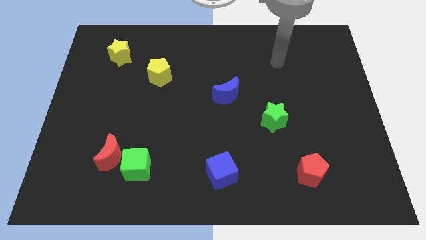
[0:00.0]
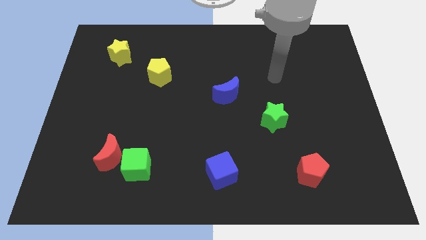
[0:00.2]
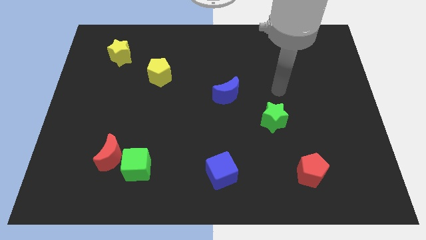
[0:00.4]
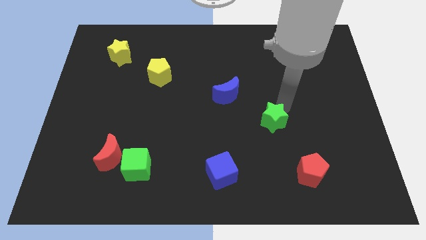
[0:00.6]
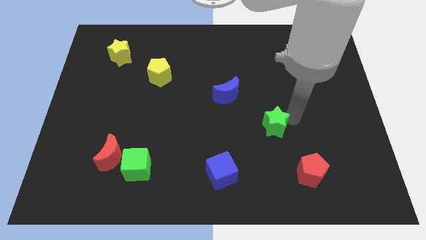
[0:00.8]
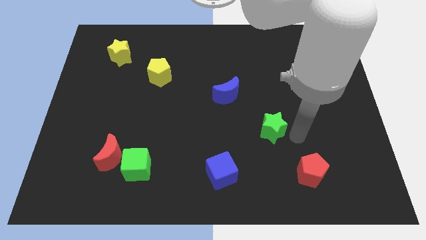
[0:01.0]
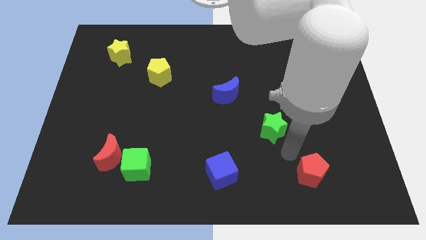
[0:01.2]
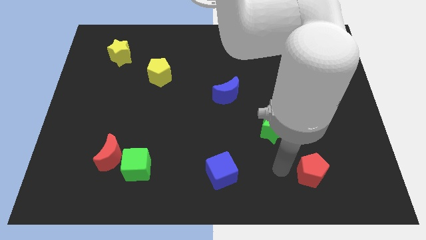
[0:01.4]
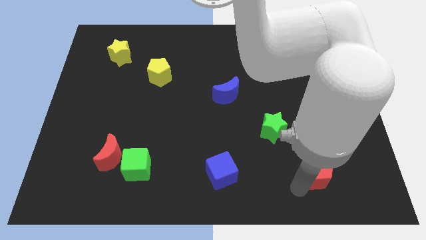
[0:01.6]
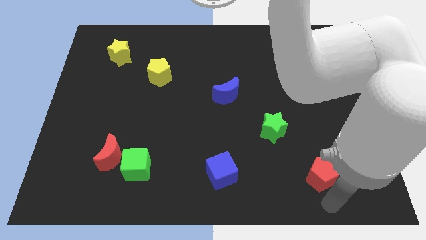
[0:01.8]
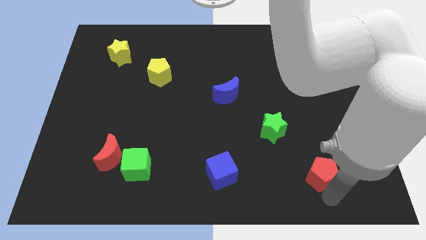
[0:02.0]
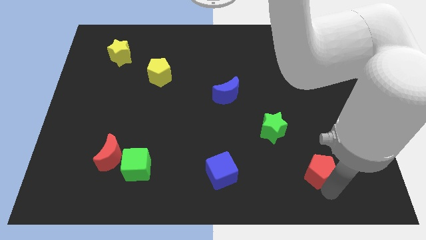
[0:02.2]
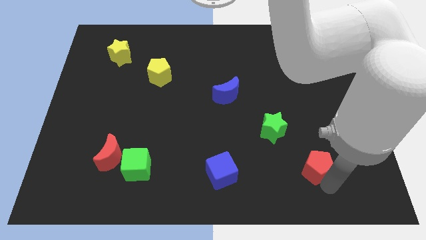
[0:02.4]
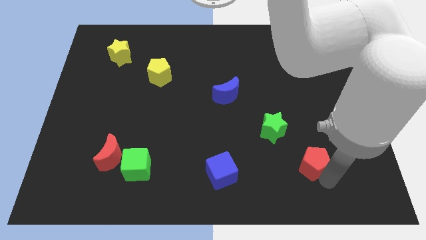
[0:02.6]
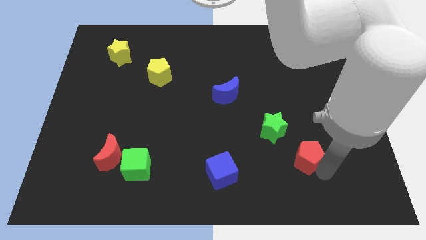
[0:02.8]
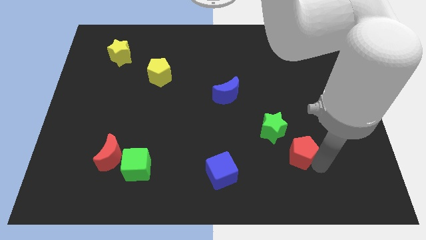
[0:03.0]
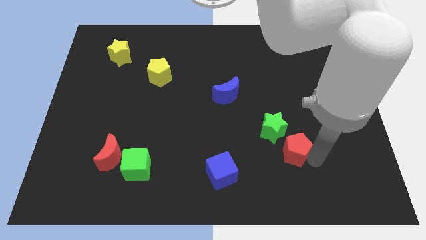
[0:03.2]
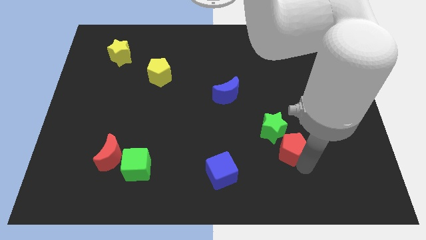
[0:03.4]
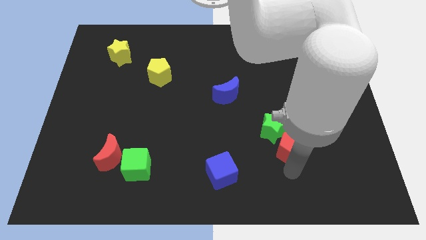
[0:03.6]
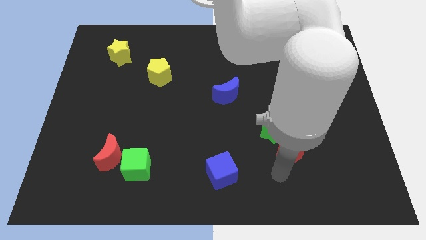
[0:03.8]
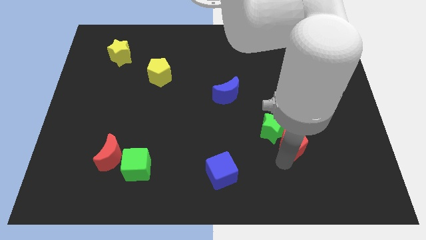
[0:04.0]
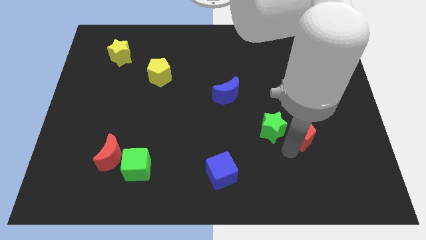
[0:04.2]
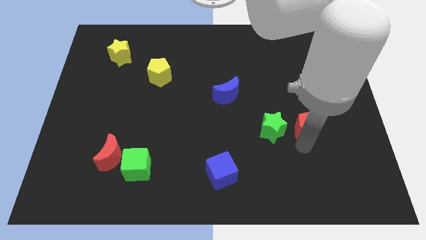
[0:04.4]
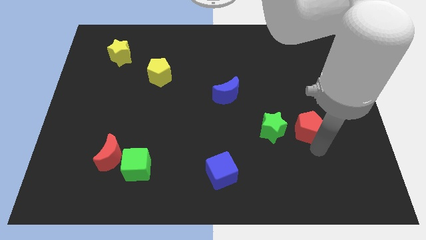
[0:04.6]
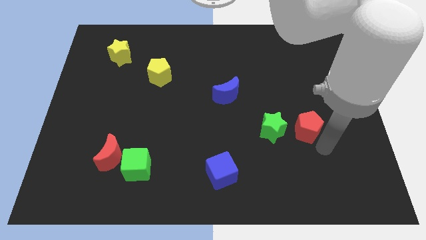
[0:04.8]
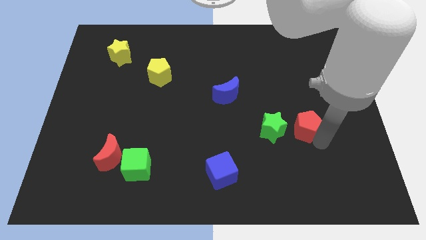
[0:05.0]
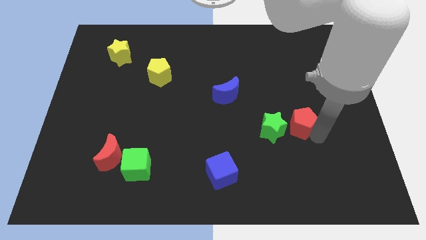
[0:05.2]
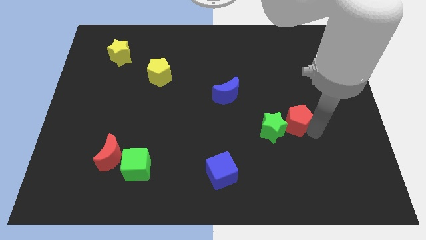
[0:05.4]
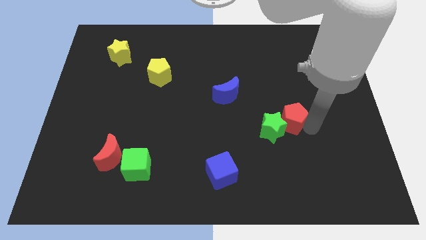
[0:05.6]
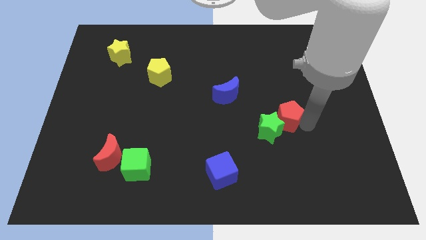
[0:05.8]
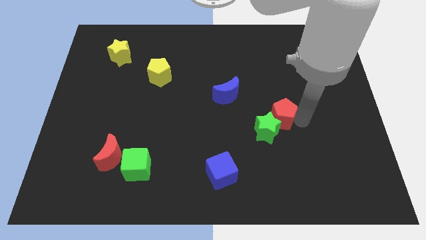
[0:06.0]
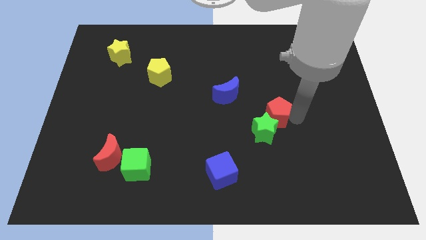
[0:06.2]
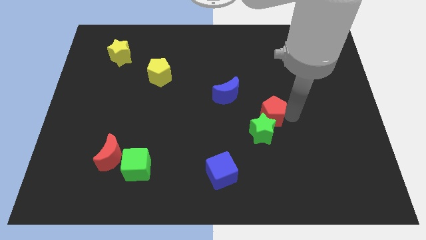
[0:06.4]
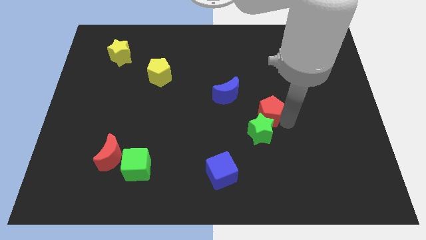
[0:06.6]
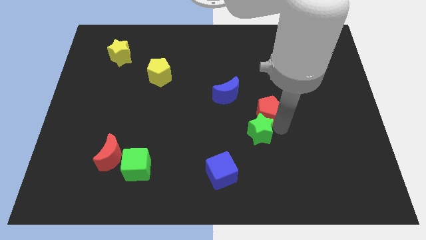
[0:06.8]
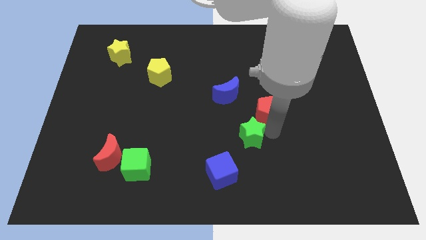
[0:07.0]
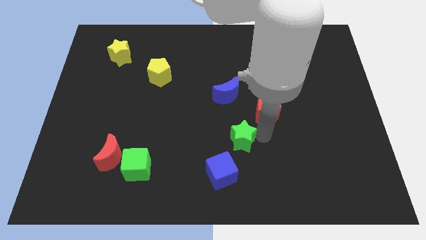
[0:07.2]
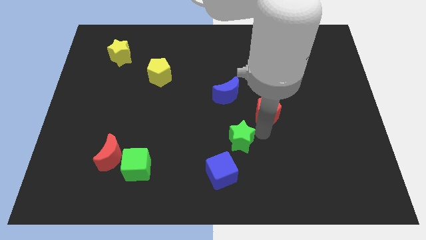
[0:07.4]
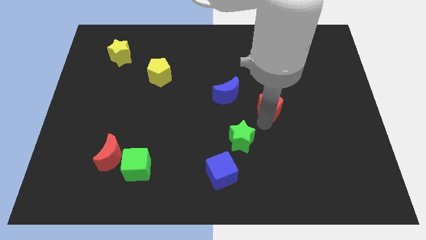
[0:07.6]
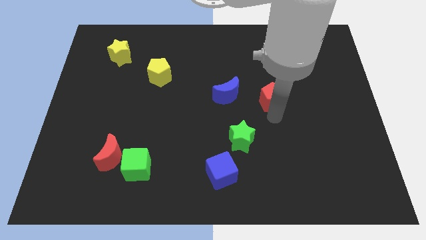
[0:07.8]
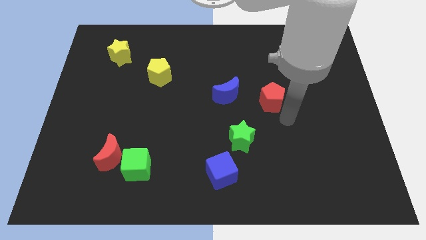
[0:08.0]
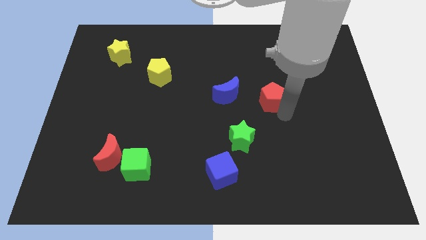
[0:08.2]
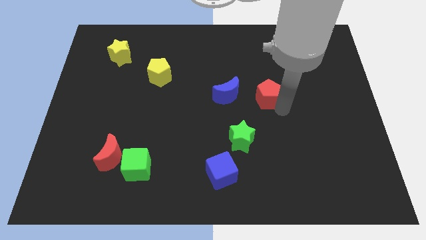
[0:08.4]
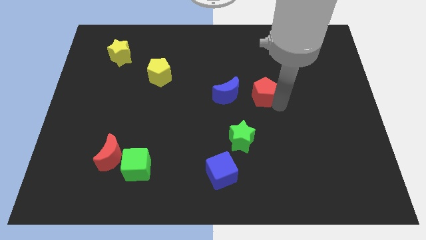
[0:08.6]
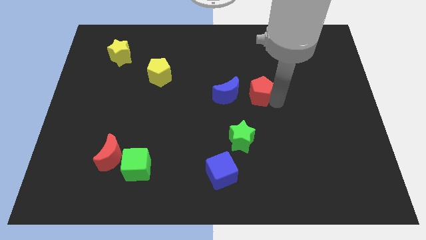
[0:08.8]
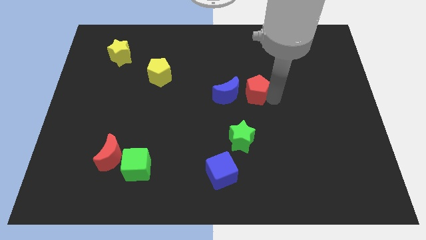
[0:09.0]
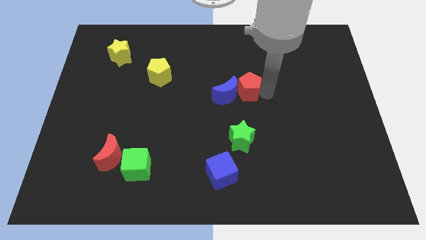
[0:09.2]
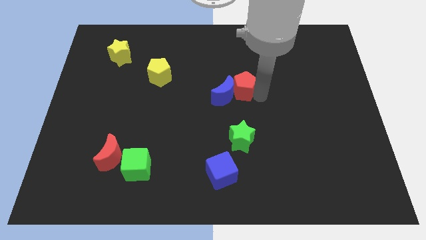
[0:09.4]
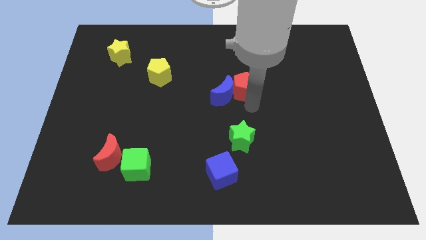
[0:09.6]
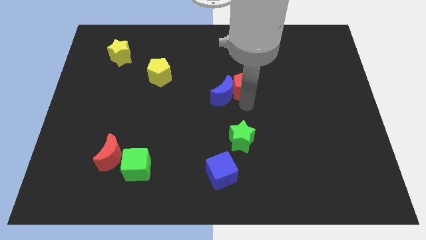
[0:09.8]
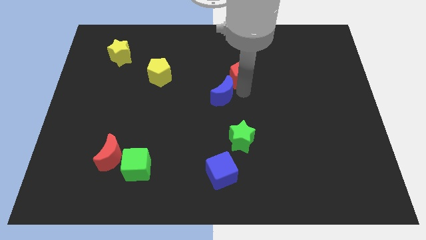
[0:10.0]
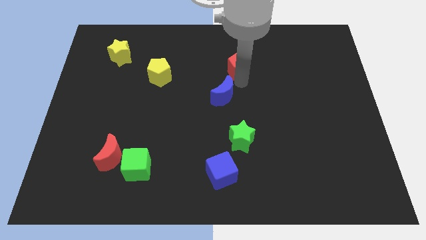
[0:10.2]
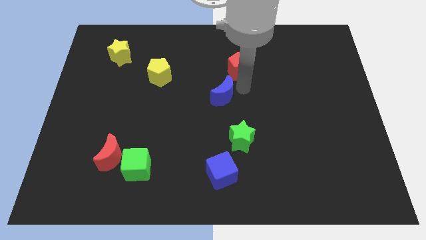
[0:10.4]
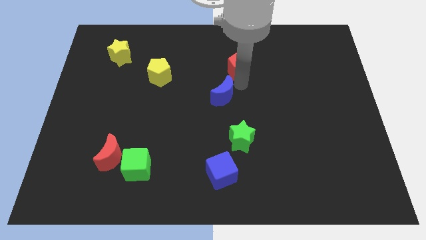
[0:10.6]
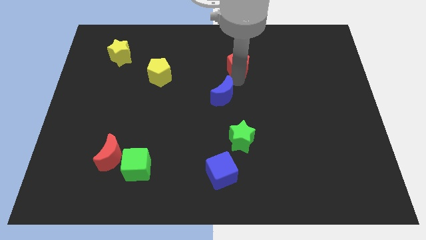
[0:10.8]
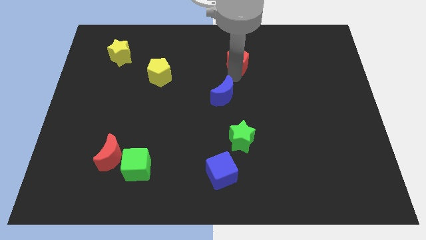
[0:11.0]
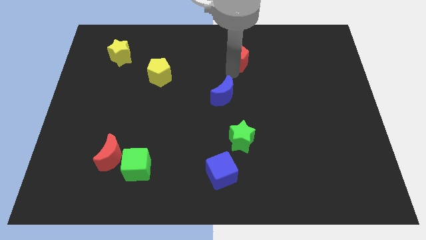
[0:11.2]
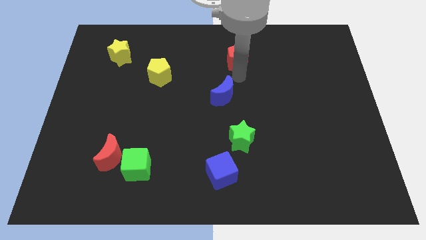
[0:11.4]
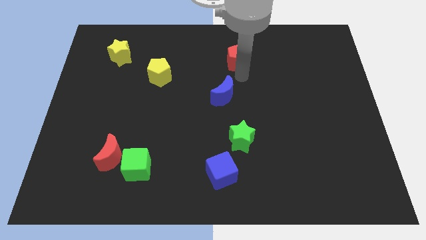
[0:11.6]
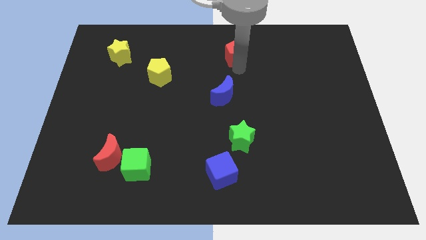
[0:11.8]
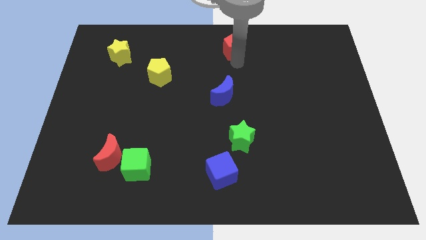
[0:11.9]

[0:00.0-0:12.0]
put the red pentagon to the top side
